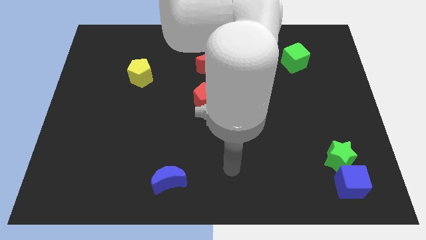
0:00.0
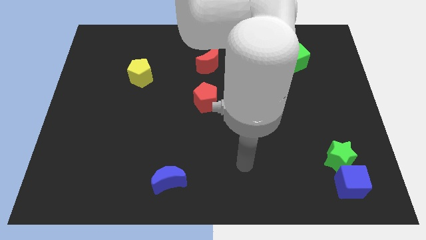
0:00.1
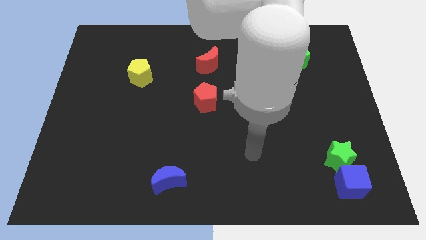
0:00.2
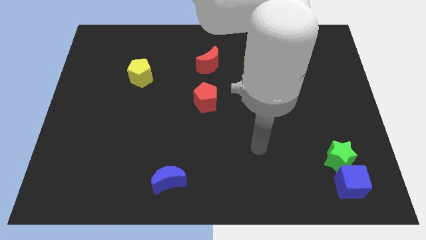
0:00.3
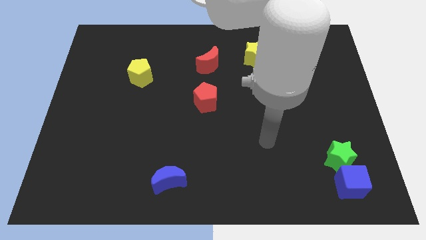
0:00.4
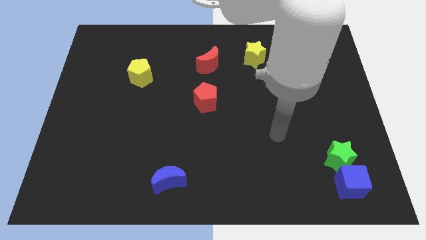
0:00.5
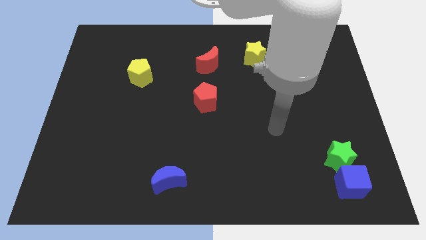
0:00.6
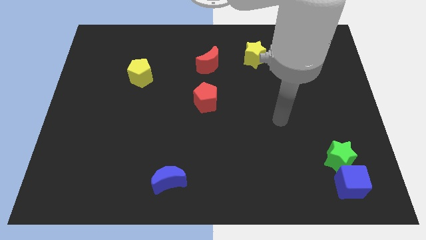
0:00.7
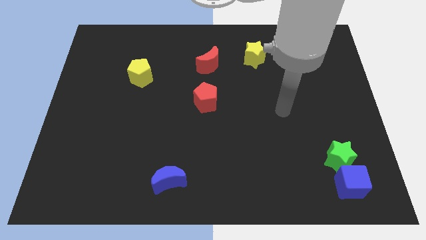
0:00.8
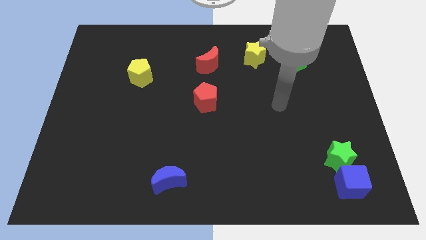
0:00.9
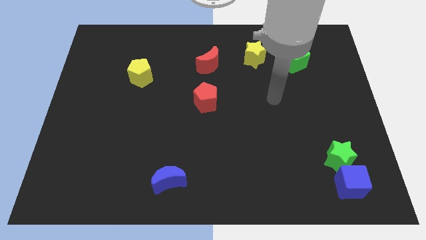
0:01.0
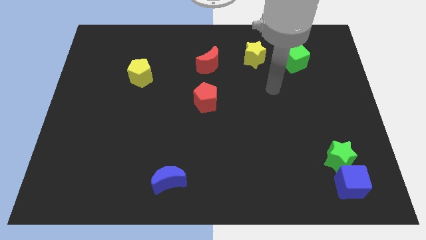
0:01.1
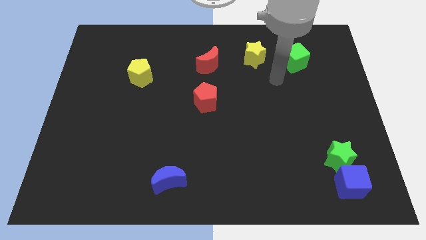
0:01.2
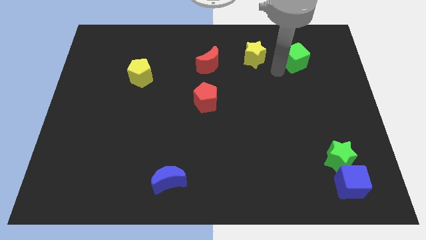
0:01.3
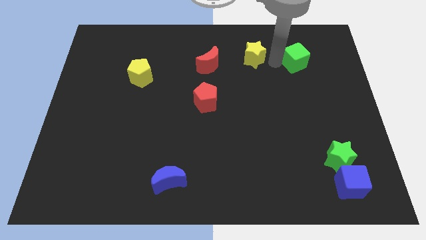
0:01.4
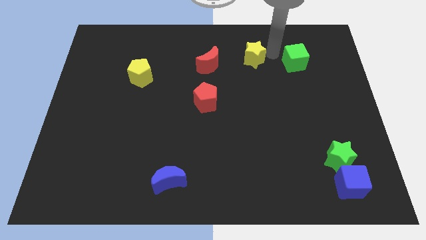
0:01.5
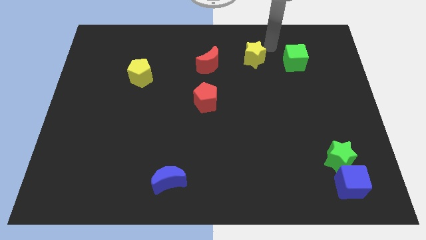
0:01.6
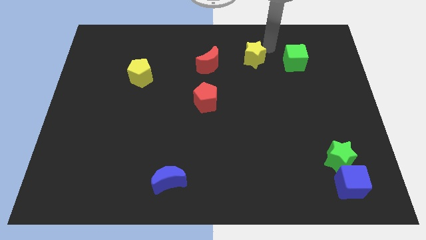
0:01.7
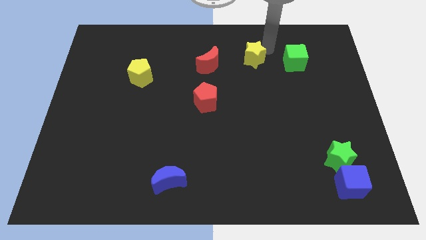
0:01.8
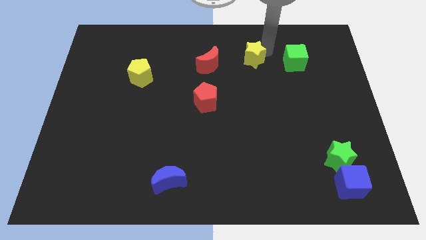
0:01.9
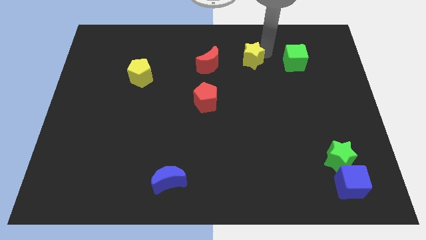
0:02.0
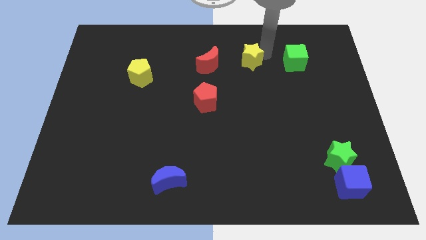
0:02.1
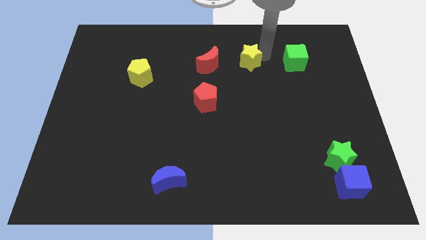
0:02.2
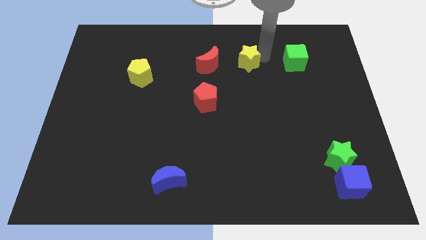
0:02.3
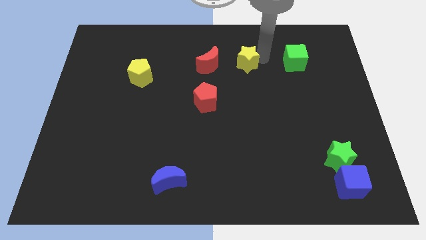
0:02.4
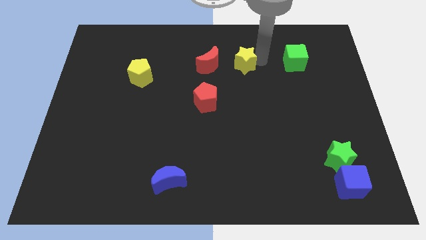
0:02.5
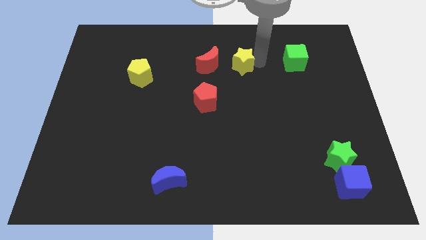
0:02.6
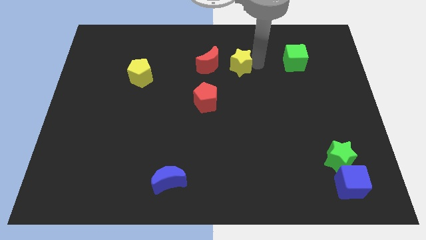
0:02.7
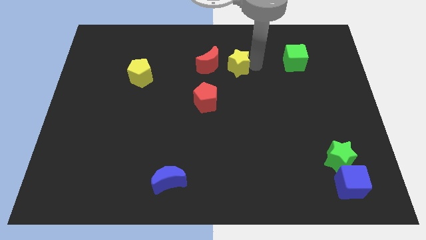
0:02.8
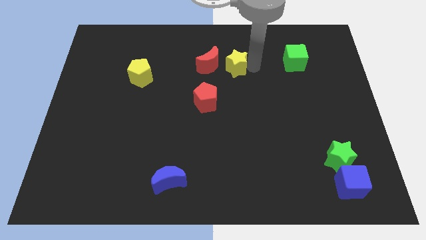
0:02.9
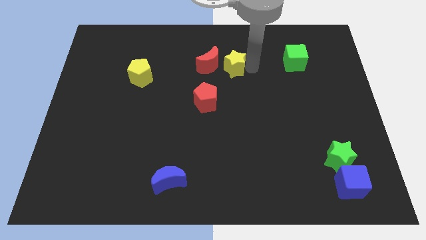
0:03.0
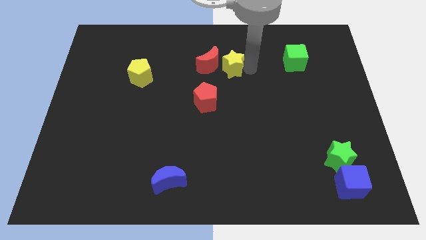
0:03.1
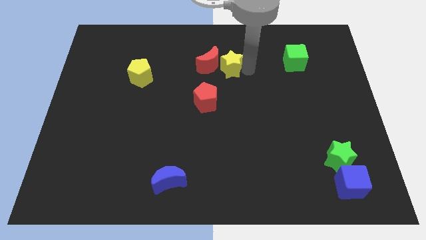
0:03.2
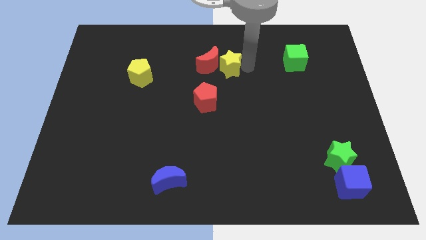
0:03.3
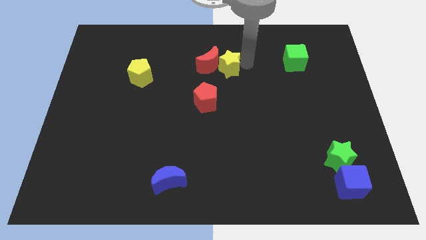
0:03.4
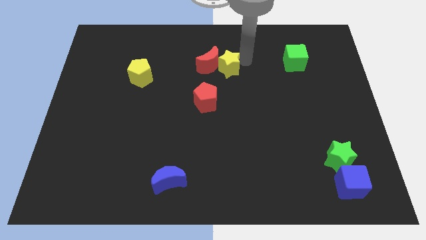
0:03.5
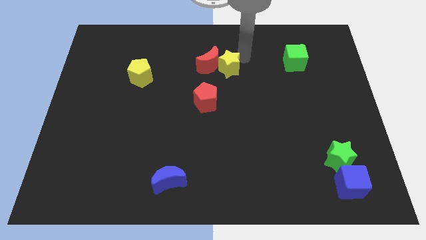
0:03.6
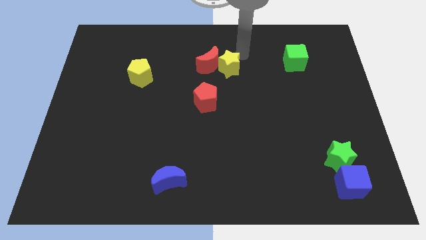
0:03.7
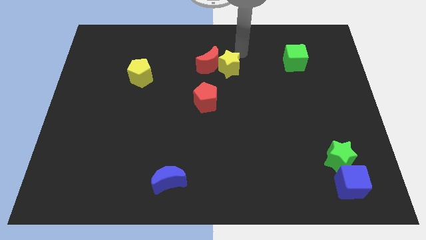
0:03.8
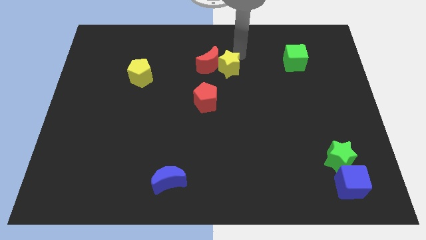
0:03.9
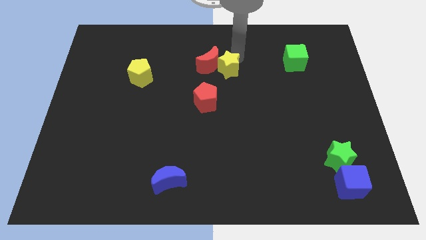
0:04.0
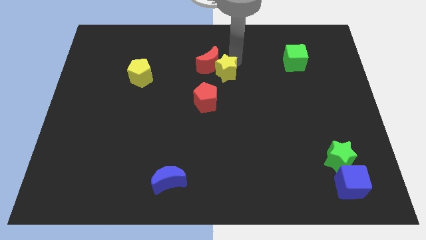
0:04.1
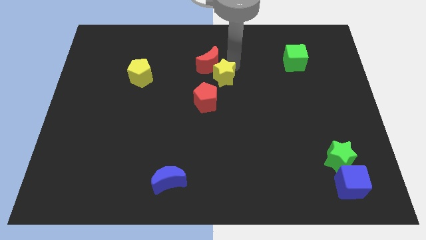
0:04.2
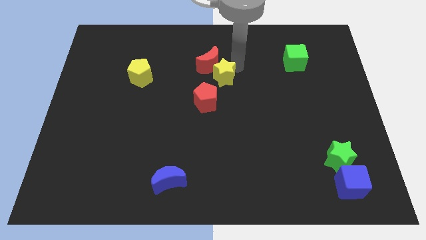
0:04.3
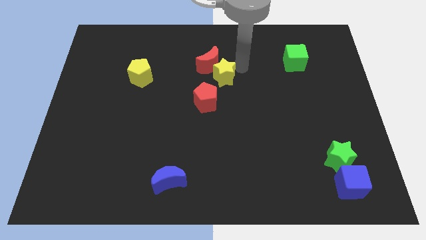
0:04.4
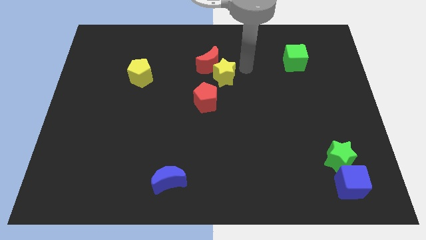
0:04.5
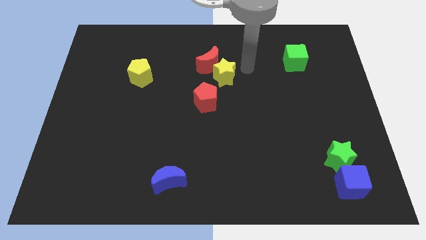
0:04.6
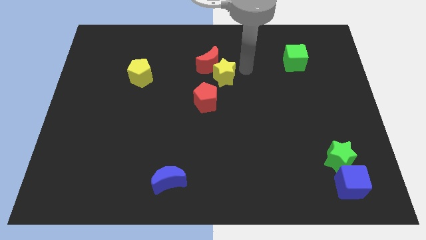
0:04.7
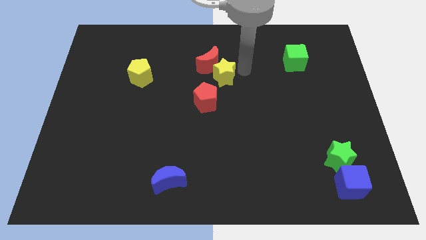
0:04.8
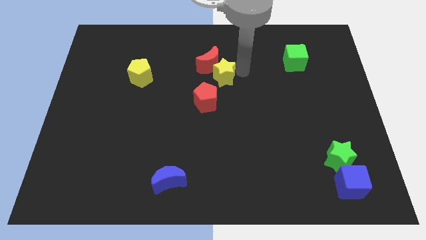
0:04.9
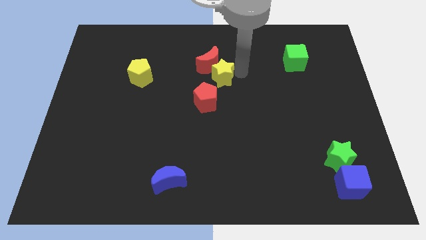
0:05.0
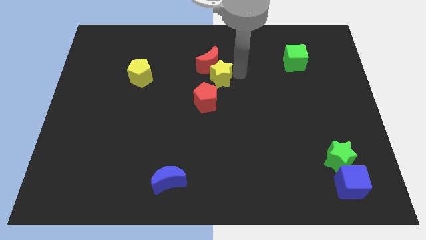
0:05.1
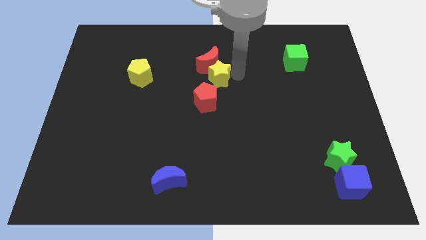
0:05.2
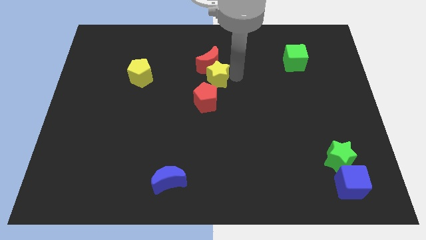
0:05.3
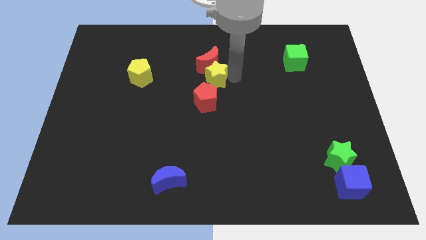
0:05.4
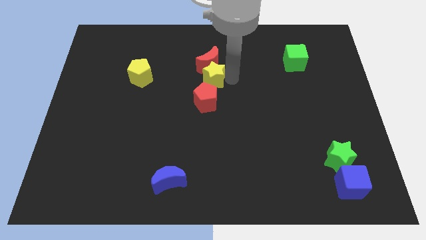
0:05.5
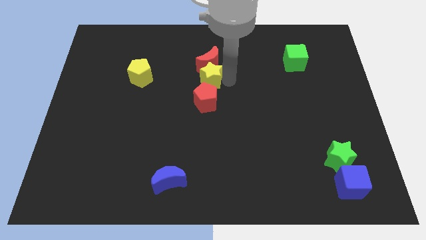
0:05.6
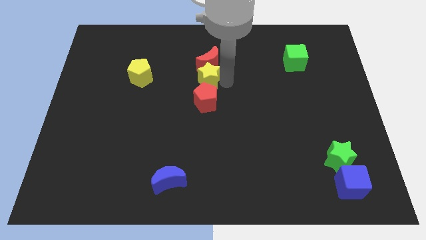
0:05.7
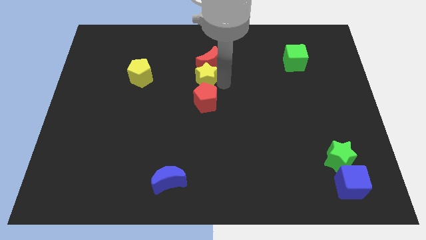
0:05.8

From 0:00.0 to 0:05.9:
put the yellow star to the top left of the red pentagon

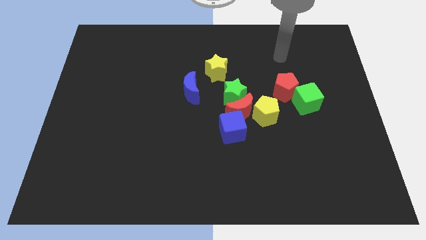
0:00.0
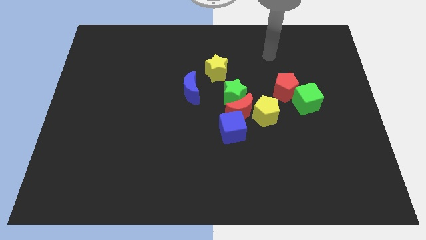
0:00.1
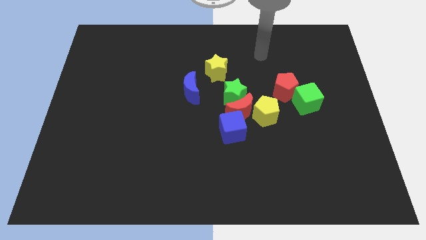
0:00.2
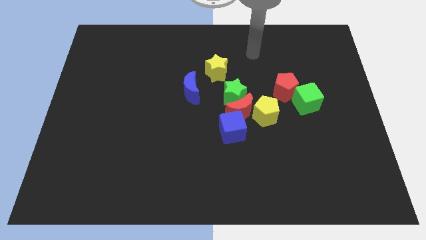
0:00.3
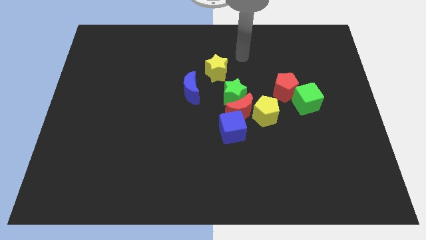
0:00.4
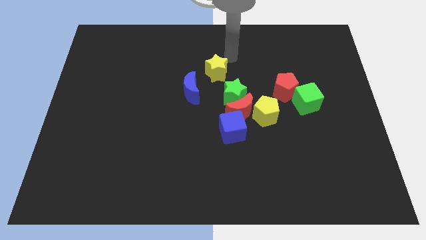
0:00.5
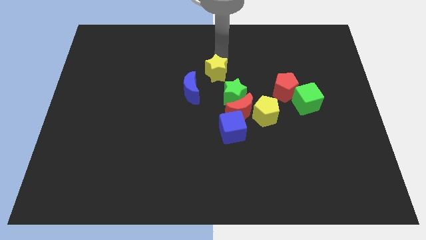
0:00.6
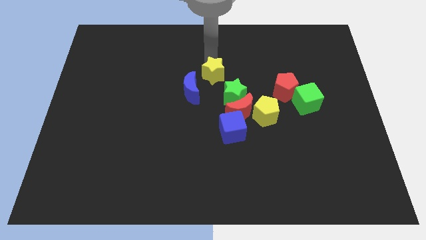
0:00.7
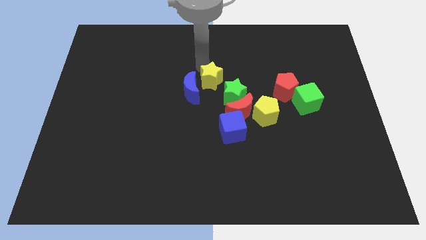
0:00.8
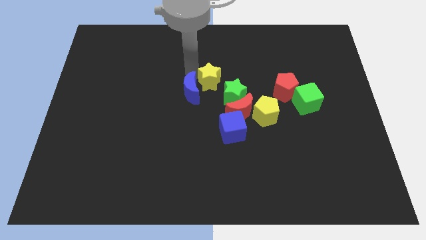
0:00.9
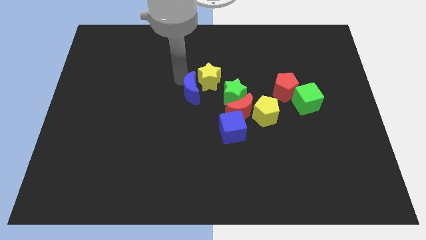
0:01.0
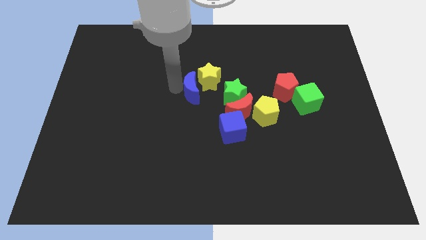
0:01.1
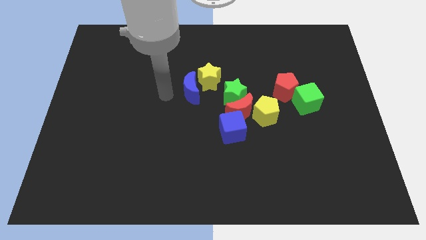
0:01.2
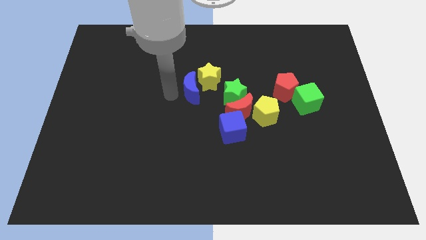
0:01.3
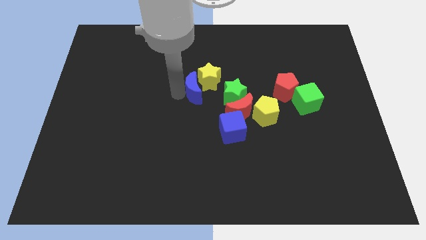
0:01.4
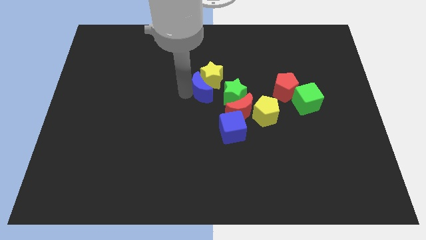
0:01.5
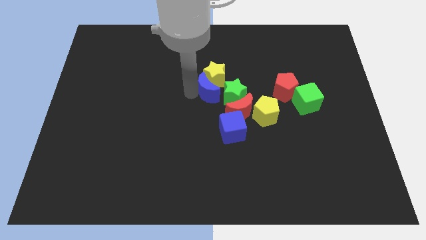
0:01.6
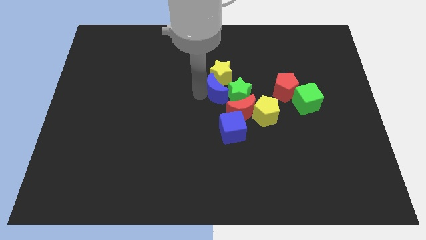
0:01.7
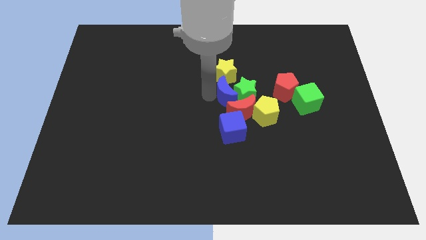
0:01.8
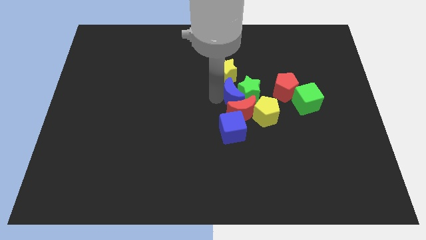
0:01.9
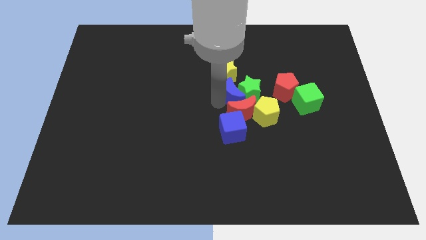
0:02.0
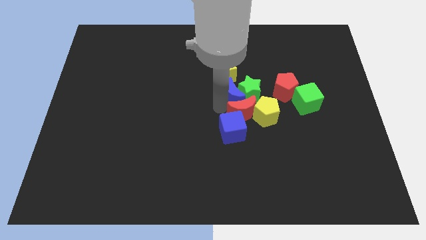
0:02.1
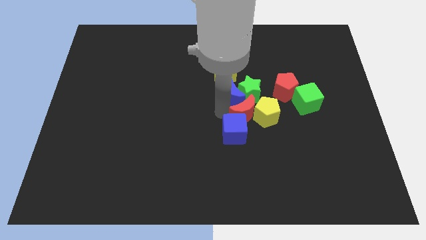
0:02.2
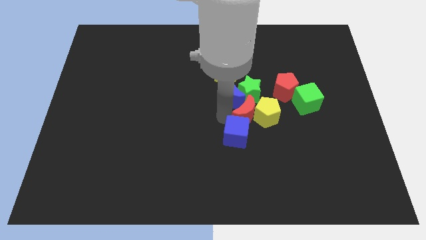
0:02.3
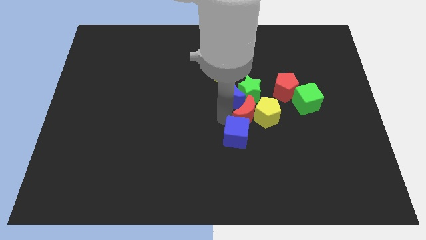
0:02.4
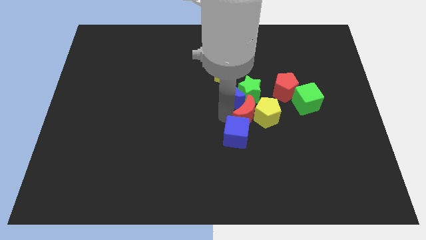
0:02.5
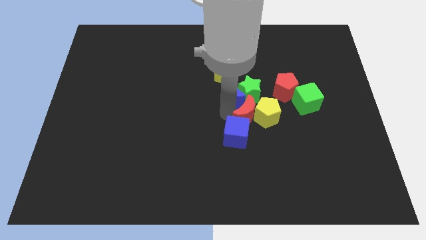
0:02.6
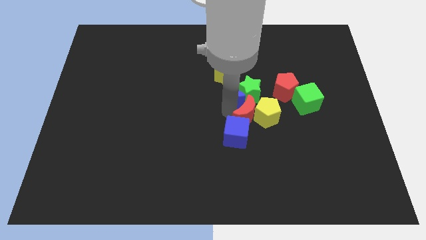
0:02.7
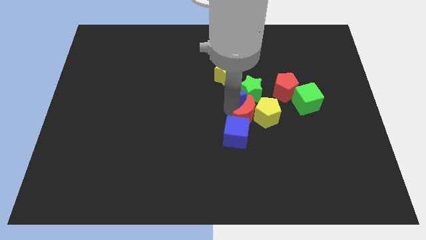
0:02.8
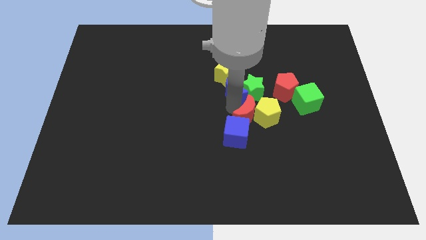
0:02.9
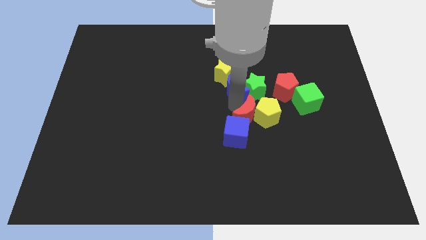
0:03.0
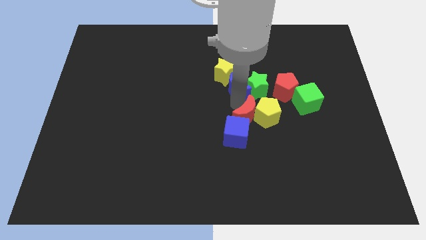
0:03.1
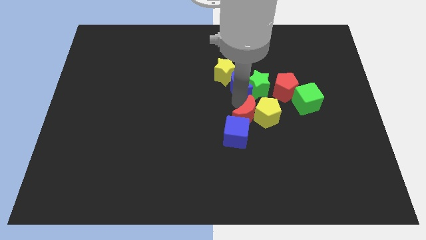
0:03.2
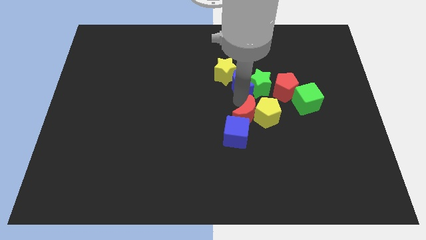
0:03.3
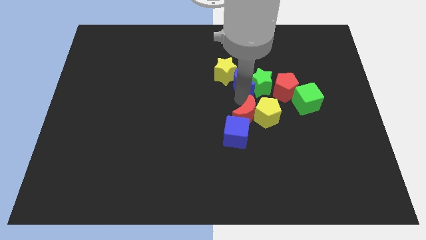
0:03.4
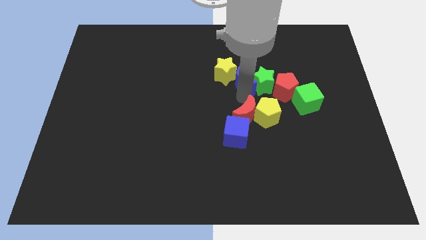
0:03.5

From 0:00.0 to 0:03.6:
slide the blue moon to the top side of the yellow pentagon
